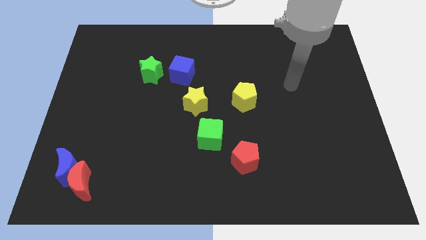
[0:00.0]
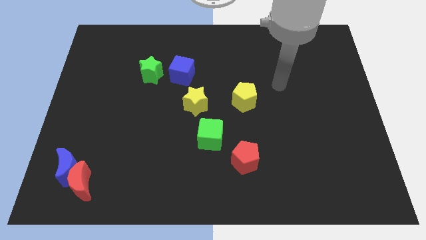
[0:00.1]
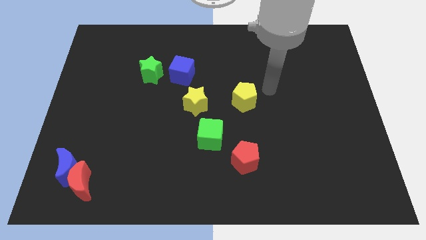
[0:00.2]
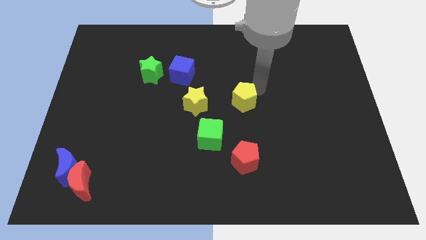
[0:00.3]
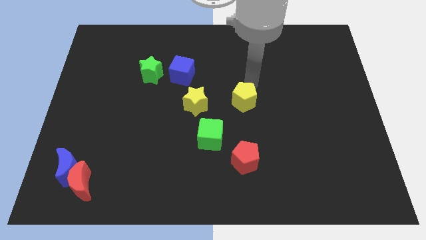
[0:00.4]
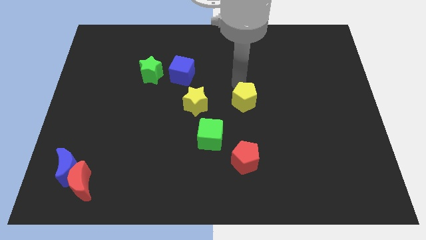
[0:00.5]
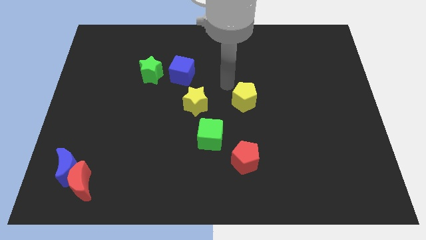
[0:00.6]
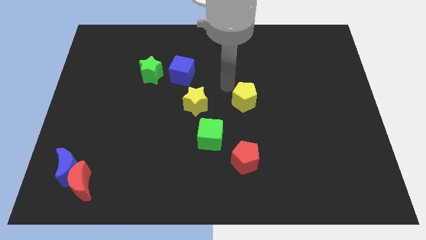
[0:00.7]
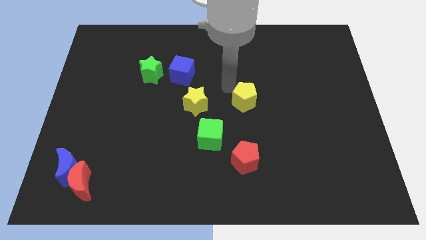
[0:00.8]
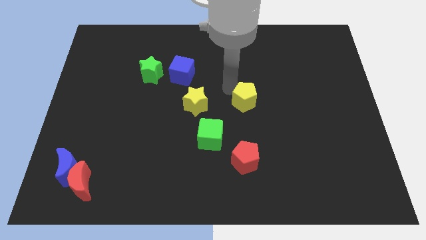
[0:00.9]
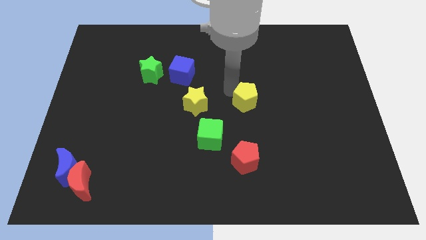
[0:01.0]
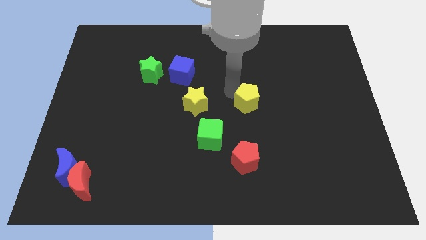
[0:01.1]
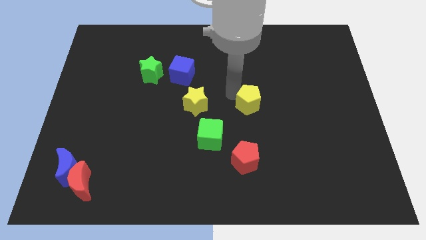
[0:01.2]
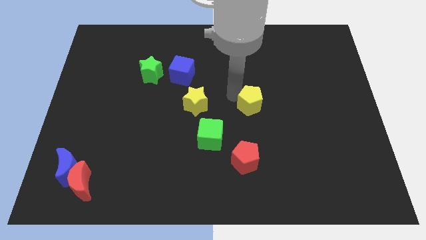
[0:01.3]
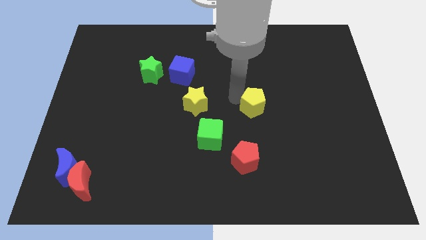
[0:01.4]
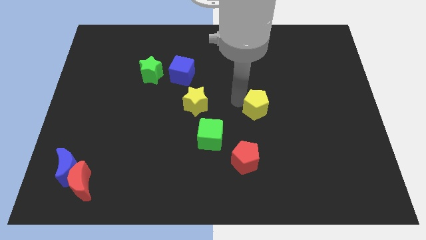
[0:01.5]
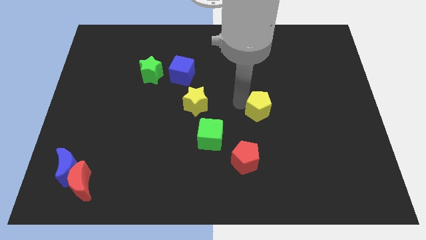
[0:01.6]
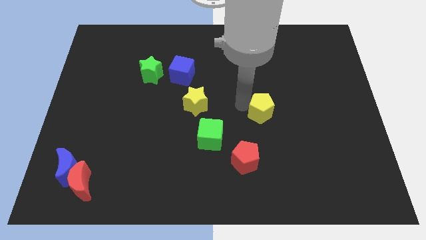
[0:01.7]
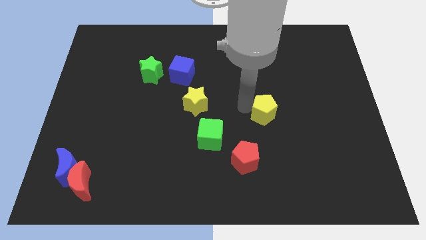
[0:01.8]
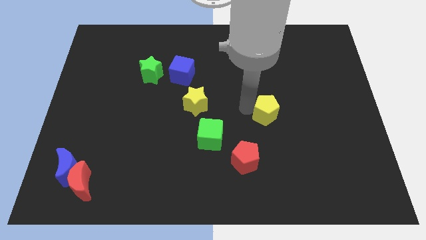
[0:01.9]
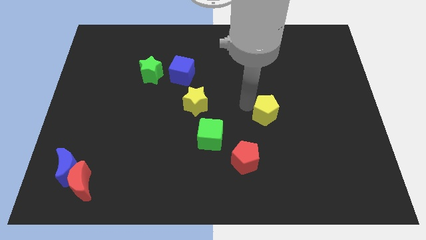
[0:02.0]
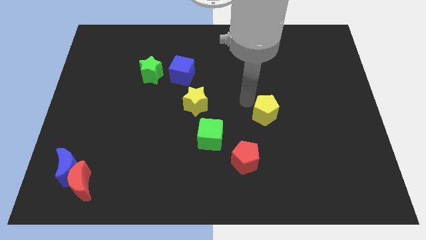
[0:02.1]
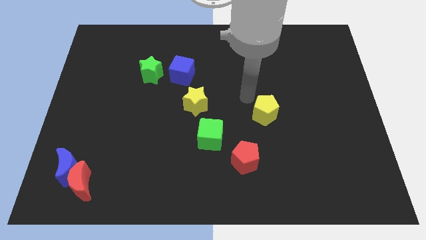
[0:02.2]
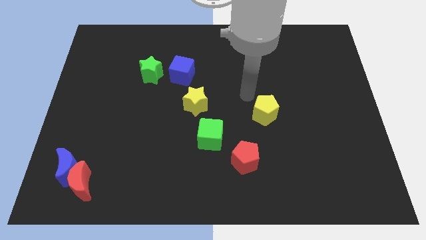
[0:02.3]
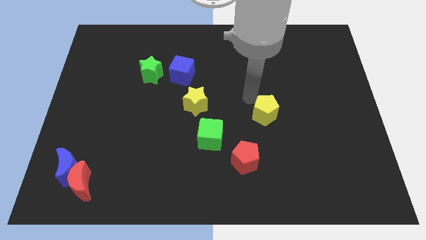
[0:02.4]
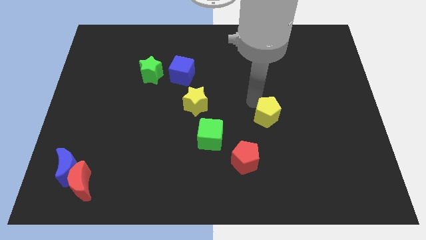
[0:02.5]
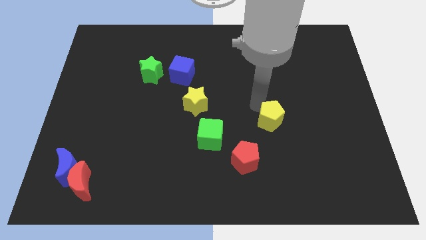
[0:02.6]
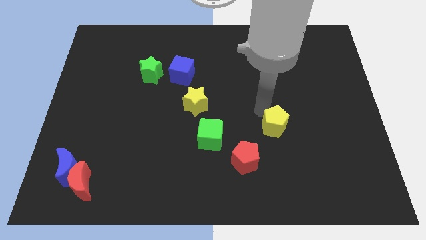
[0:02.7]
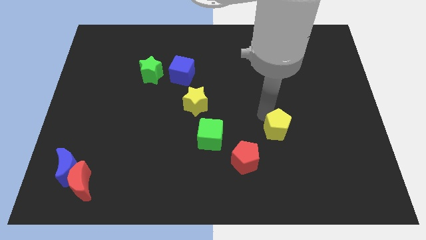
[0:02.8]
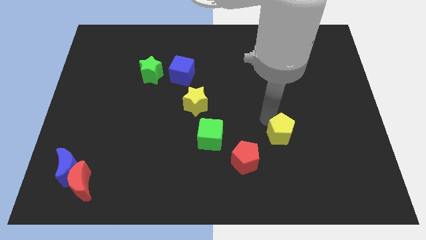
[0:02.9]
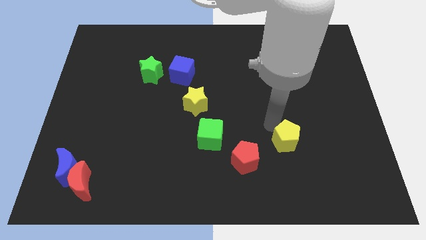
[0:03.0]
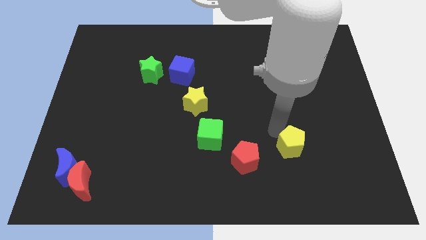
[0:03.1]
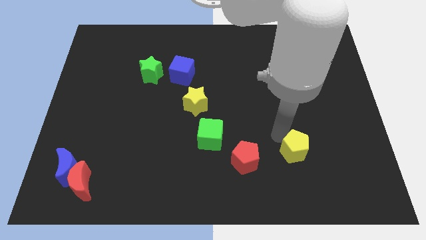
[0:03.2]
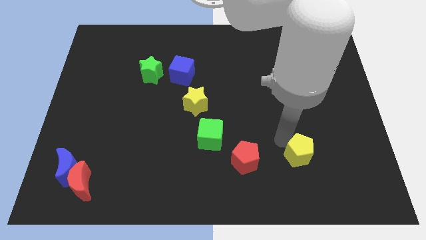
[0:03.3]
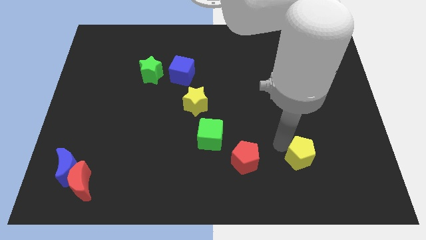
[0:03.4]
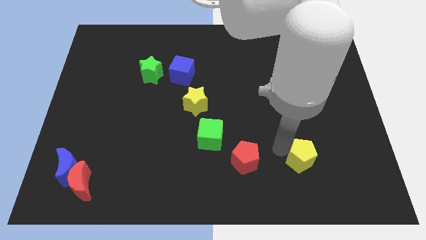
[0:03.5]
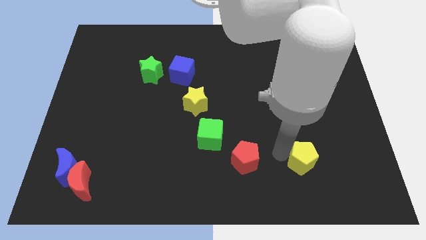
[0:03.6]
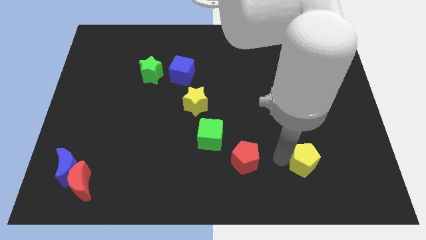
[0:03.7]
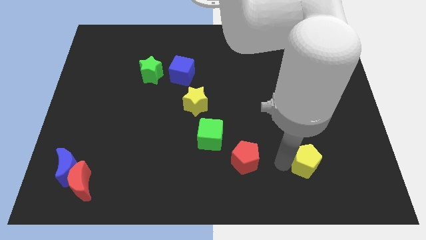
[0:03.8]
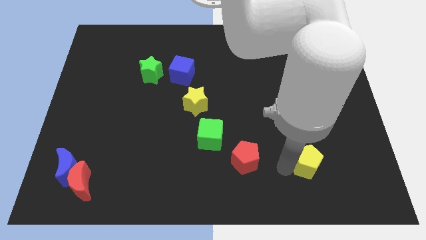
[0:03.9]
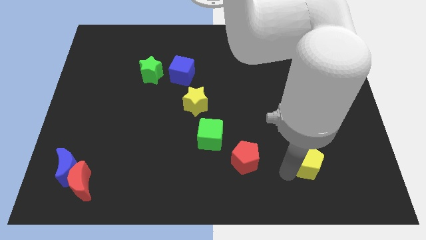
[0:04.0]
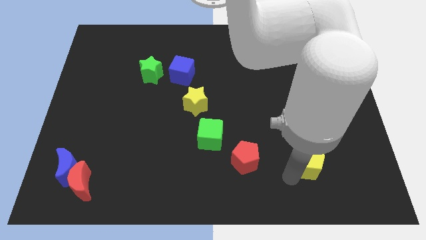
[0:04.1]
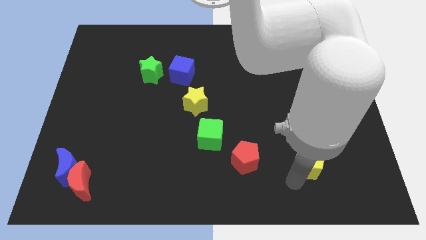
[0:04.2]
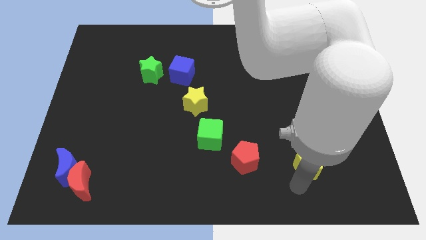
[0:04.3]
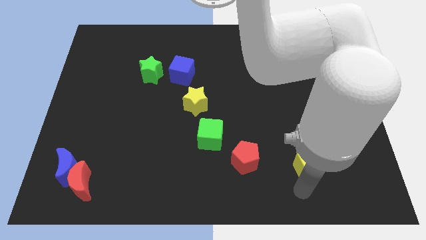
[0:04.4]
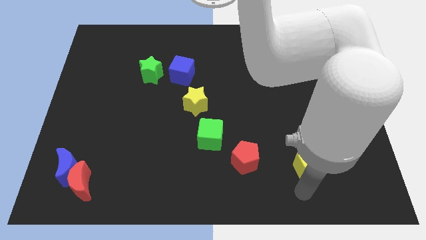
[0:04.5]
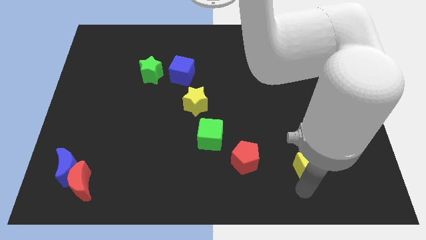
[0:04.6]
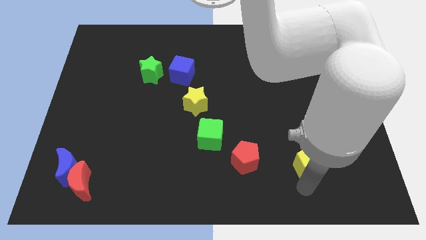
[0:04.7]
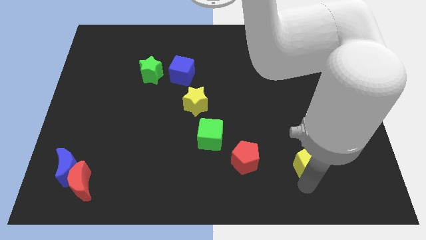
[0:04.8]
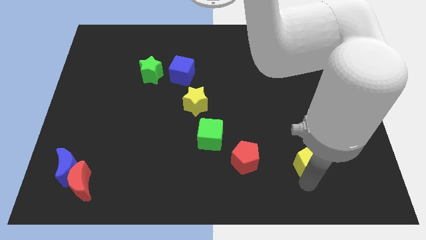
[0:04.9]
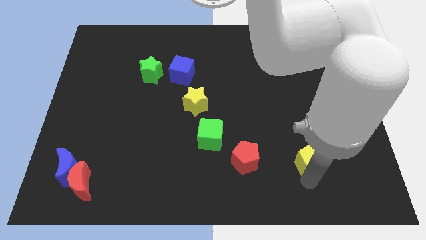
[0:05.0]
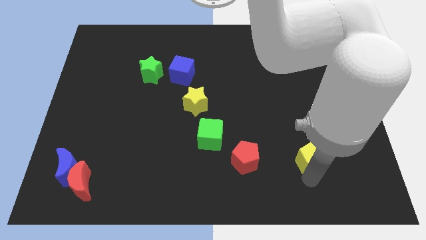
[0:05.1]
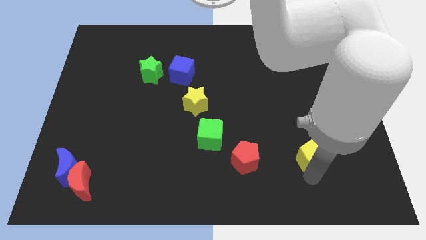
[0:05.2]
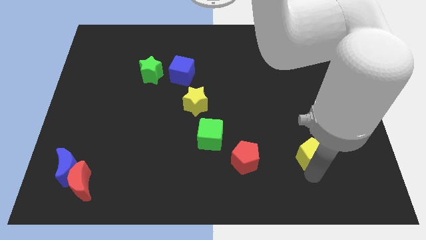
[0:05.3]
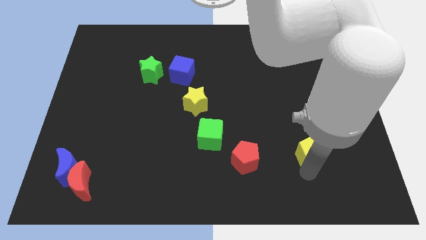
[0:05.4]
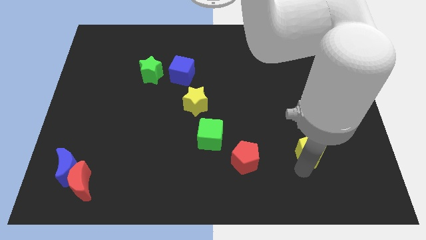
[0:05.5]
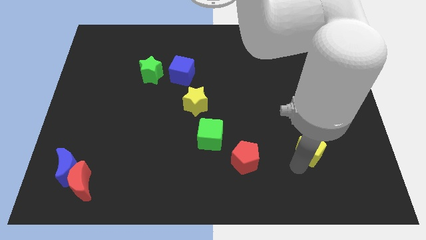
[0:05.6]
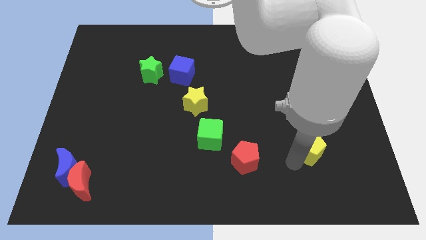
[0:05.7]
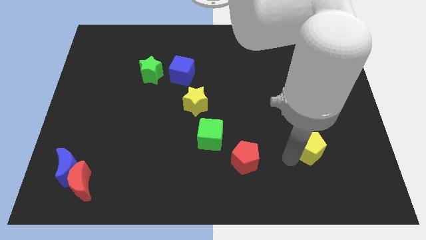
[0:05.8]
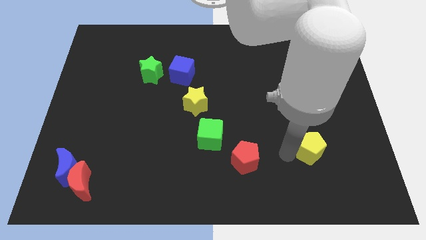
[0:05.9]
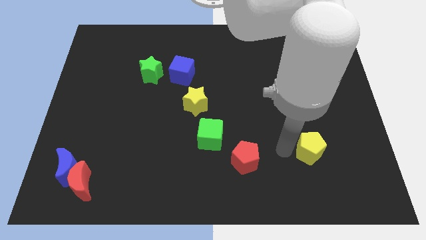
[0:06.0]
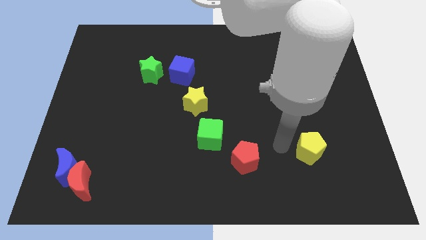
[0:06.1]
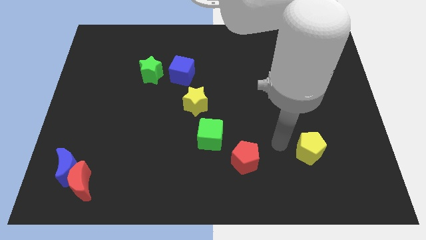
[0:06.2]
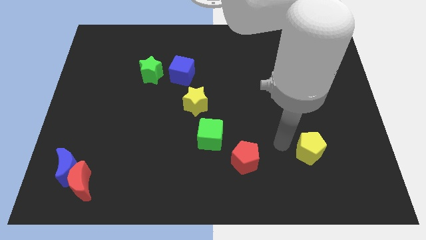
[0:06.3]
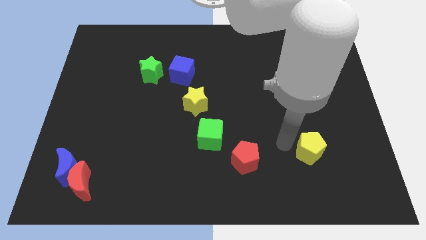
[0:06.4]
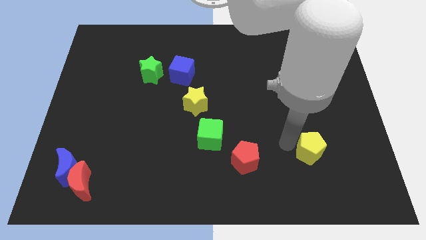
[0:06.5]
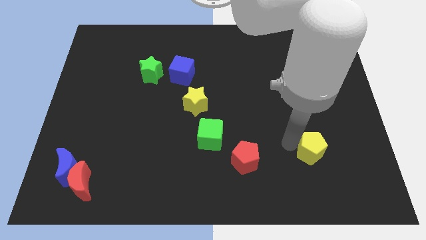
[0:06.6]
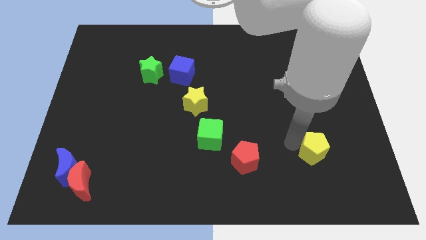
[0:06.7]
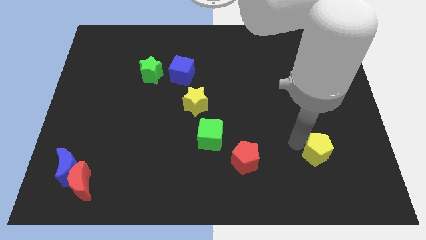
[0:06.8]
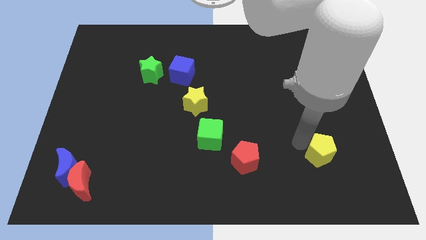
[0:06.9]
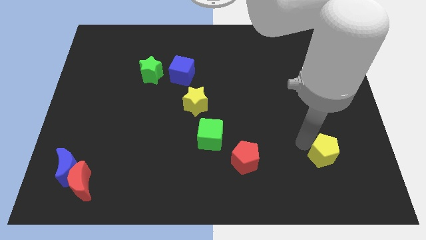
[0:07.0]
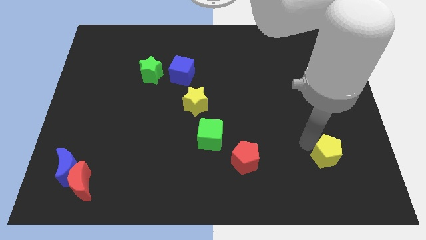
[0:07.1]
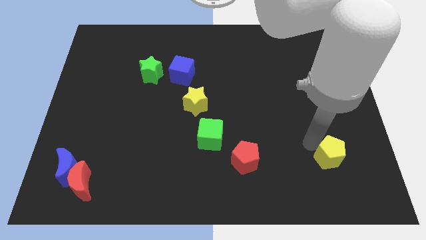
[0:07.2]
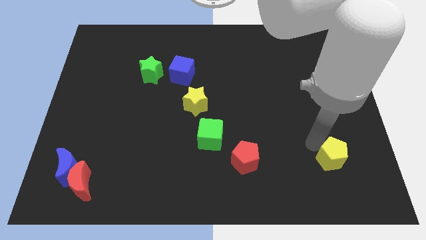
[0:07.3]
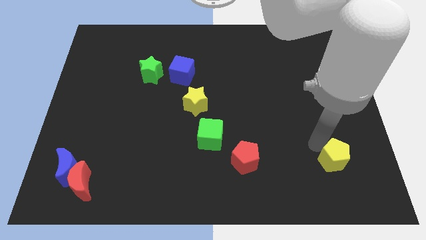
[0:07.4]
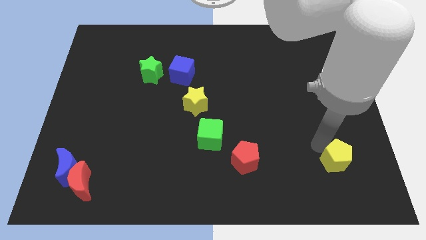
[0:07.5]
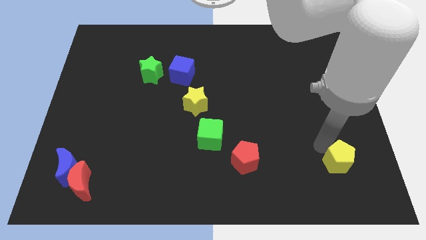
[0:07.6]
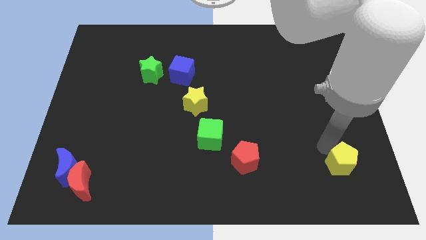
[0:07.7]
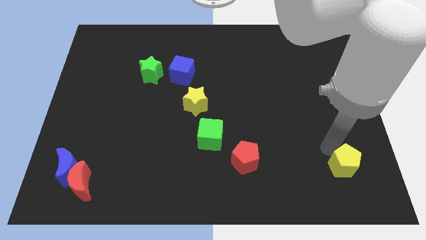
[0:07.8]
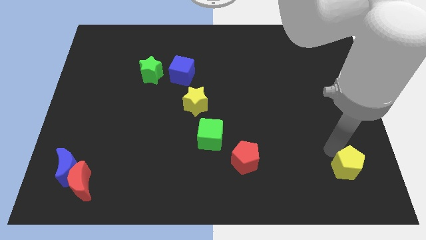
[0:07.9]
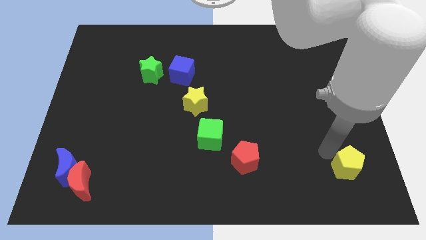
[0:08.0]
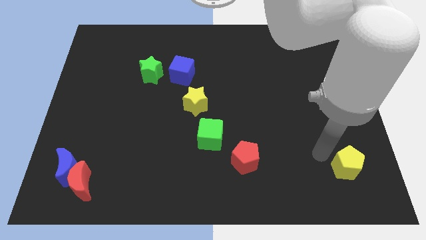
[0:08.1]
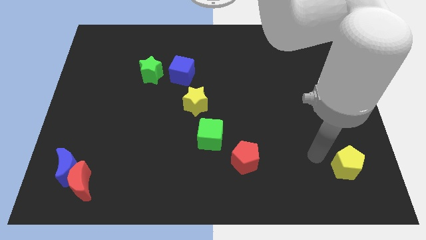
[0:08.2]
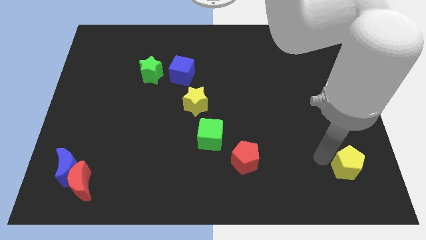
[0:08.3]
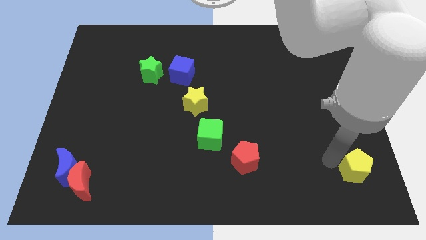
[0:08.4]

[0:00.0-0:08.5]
put the yellow pentagon to the bottom right corner
